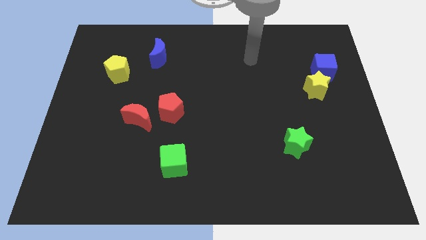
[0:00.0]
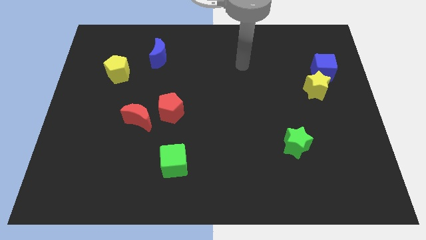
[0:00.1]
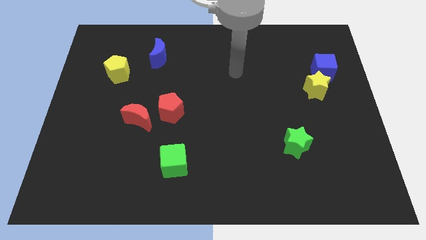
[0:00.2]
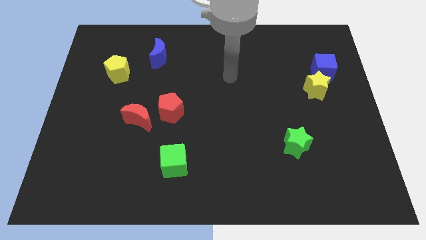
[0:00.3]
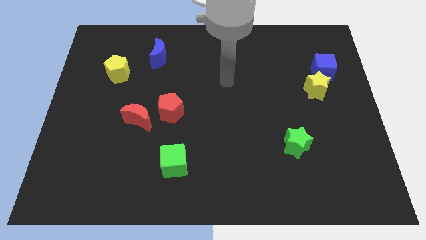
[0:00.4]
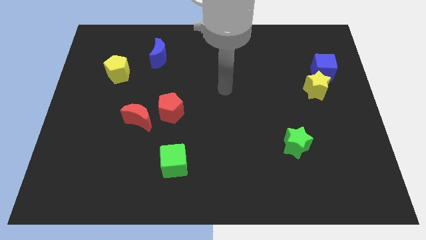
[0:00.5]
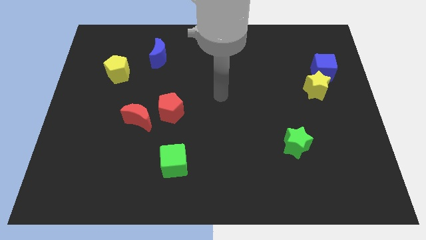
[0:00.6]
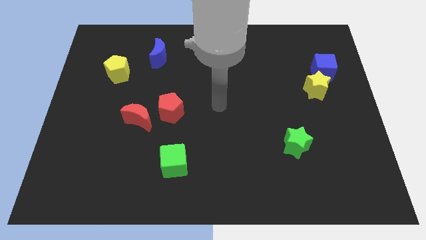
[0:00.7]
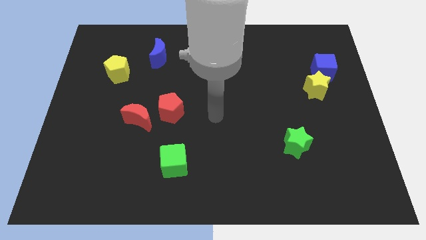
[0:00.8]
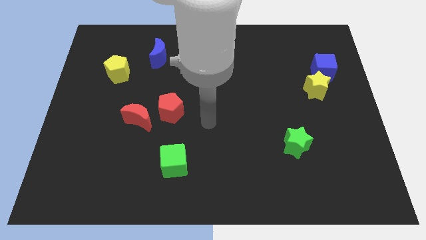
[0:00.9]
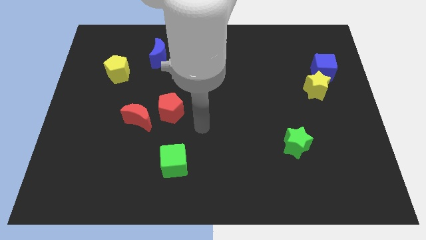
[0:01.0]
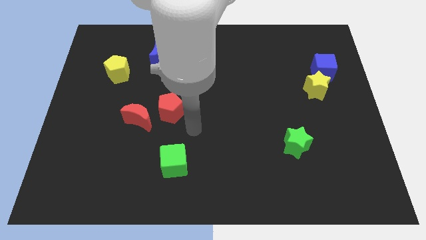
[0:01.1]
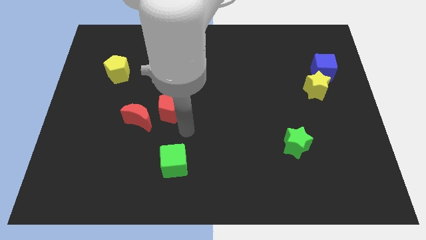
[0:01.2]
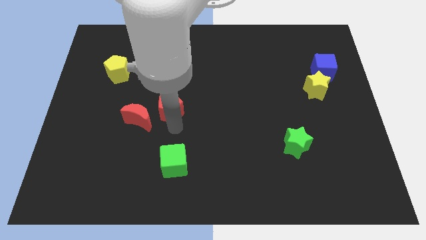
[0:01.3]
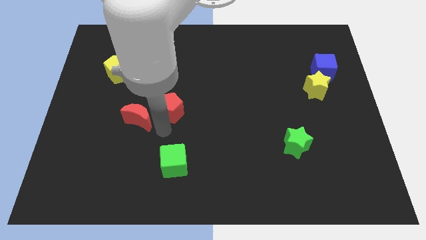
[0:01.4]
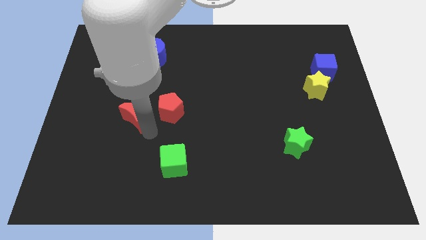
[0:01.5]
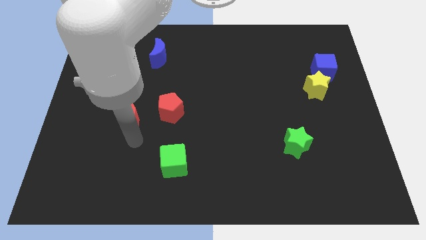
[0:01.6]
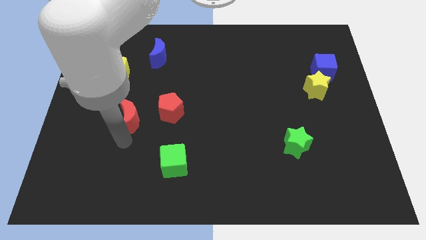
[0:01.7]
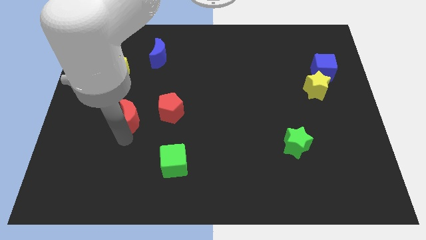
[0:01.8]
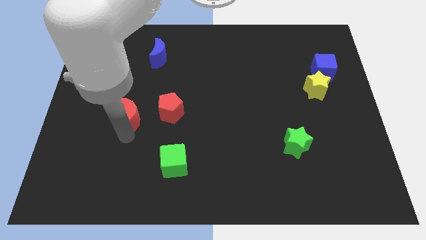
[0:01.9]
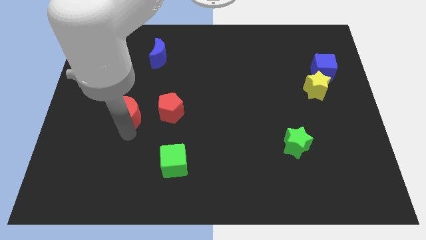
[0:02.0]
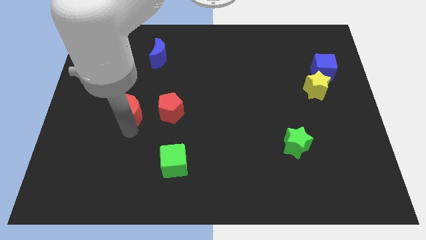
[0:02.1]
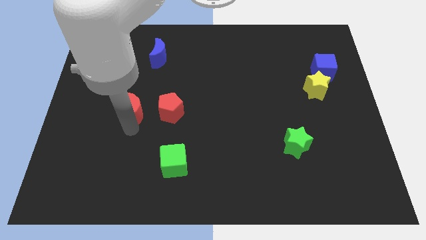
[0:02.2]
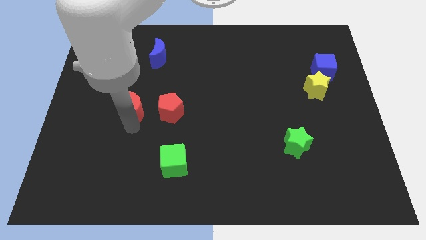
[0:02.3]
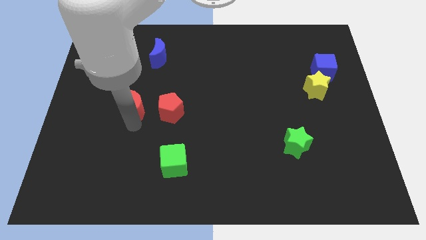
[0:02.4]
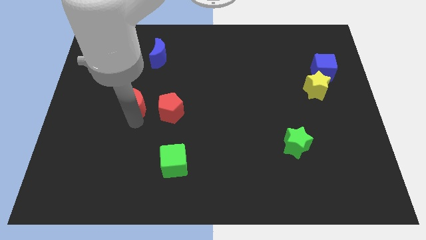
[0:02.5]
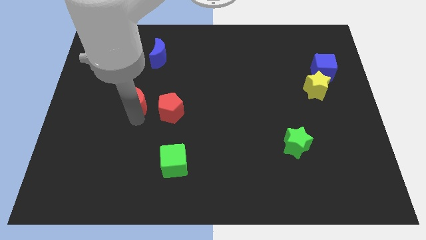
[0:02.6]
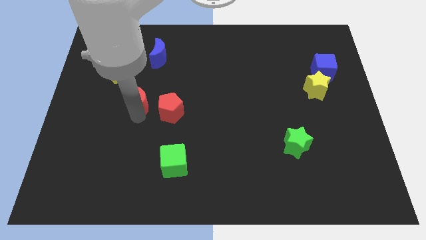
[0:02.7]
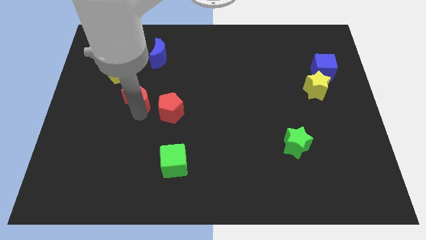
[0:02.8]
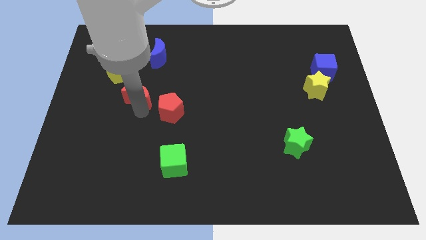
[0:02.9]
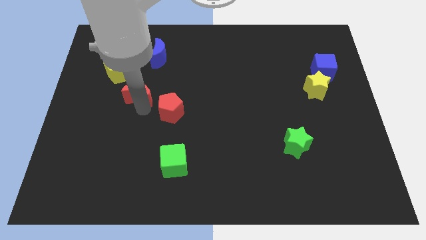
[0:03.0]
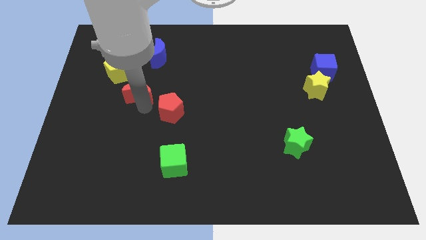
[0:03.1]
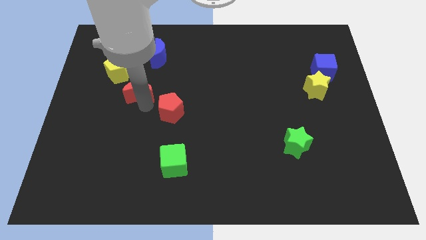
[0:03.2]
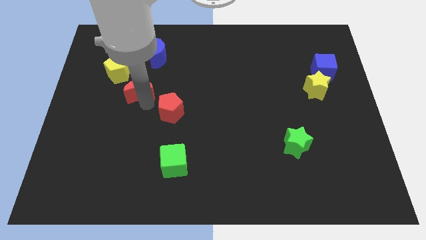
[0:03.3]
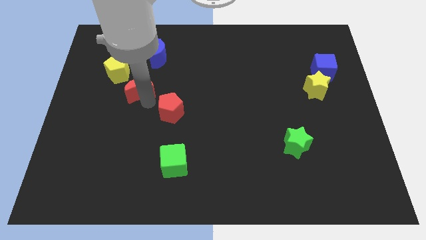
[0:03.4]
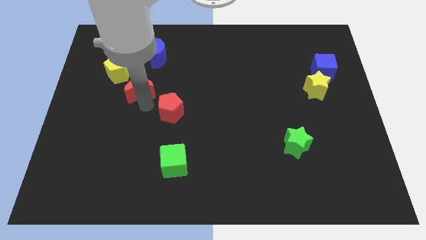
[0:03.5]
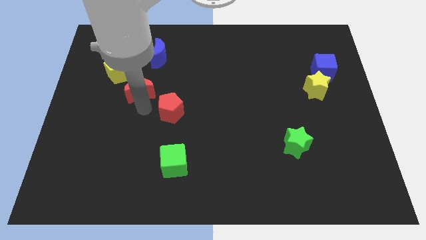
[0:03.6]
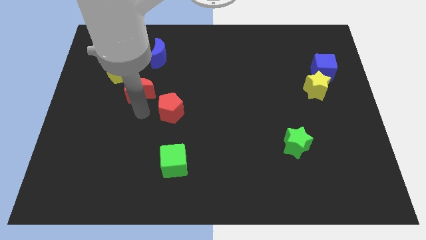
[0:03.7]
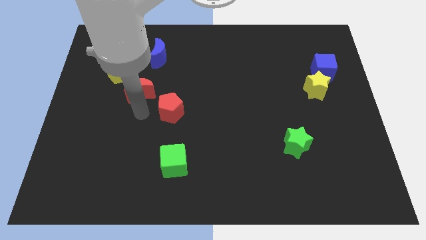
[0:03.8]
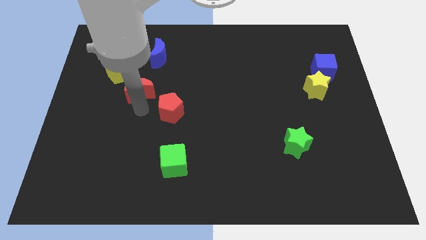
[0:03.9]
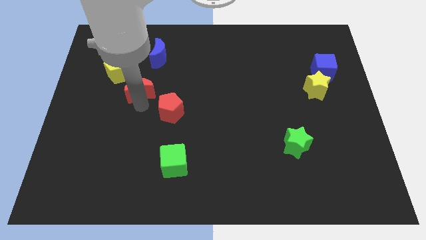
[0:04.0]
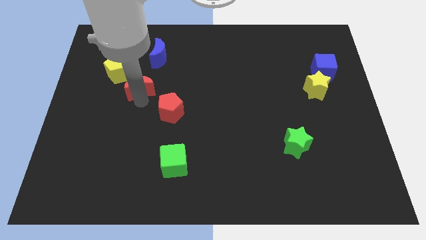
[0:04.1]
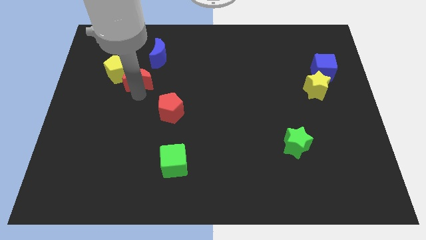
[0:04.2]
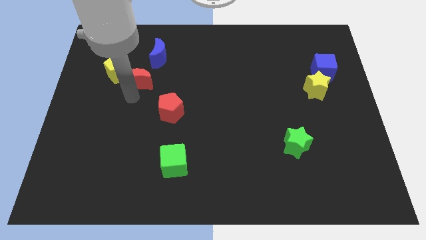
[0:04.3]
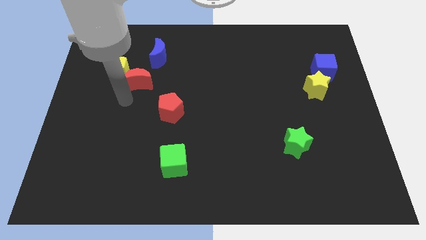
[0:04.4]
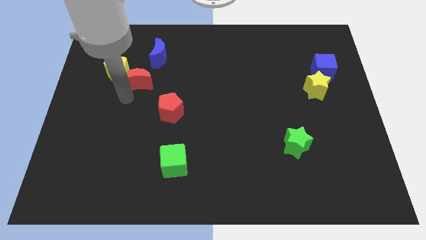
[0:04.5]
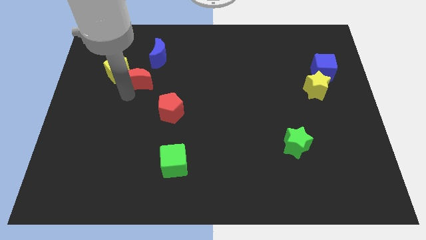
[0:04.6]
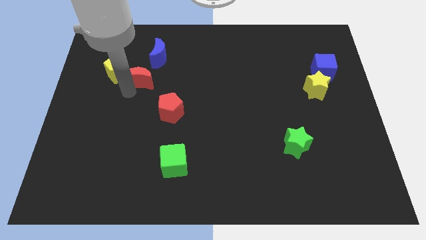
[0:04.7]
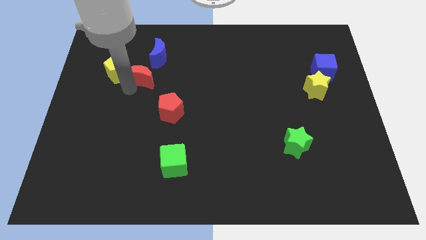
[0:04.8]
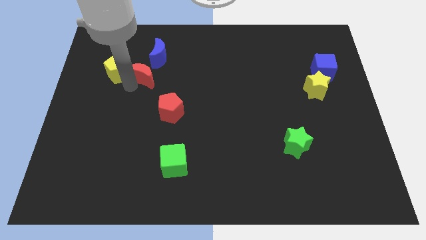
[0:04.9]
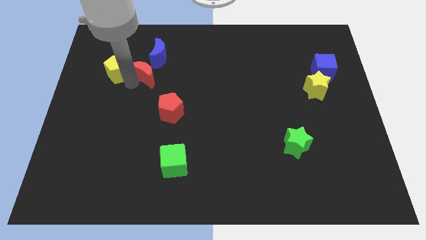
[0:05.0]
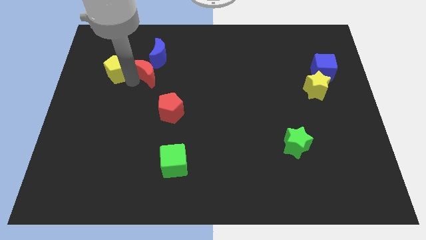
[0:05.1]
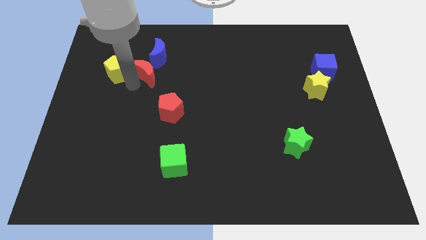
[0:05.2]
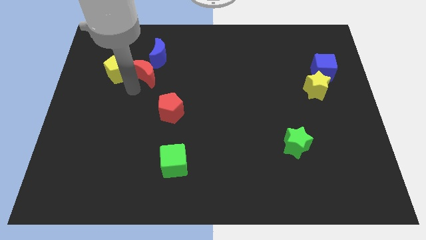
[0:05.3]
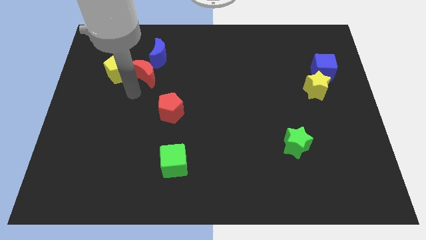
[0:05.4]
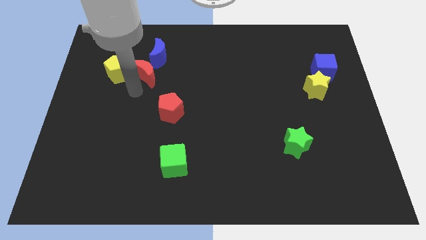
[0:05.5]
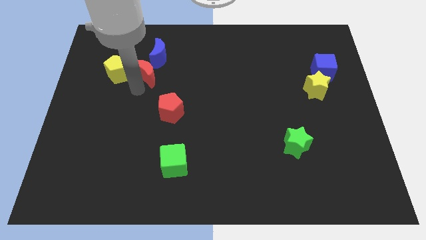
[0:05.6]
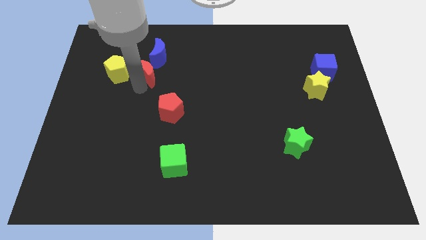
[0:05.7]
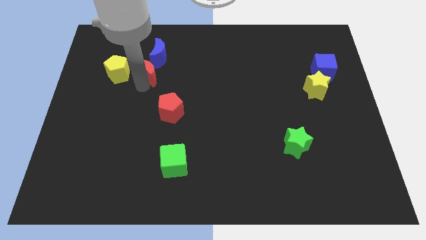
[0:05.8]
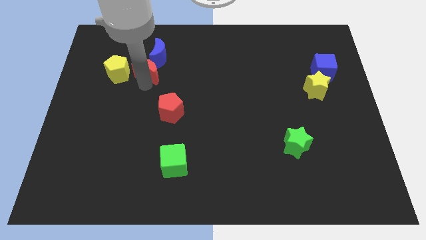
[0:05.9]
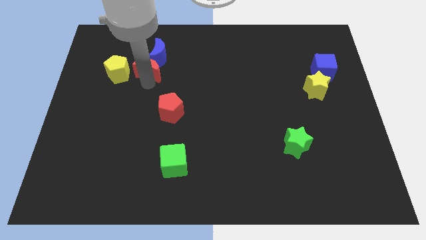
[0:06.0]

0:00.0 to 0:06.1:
move the red moon to the blue moon

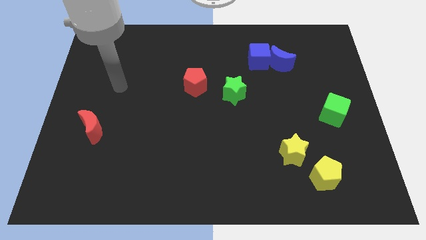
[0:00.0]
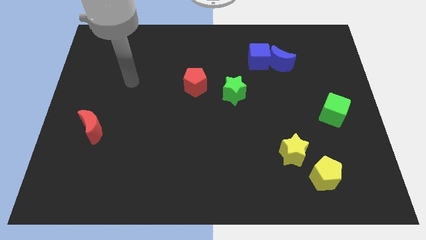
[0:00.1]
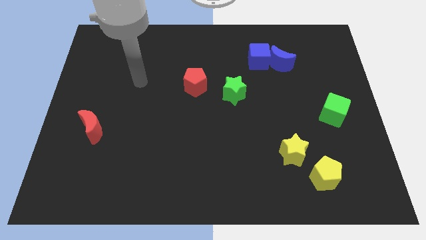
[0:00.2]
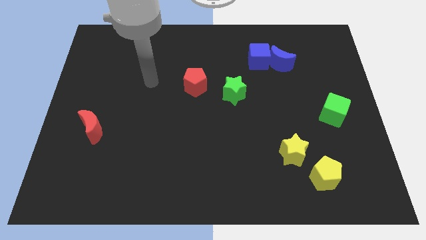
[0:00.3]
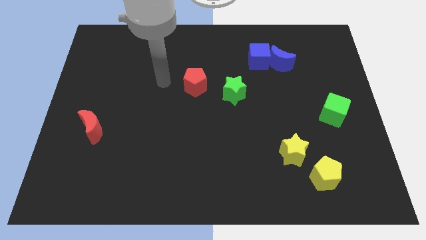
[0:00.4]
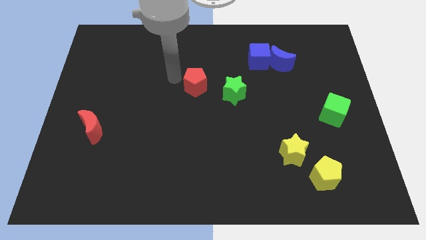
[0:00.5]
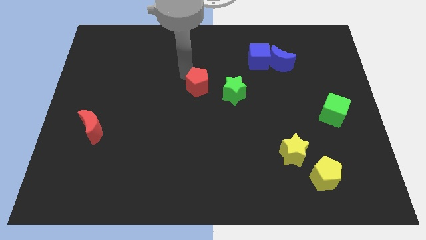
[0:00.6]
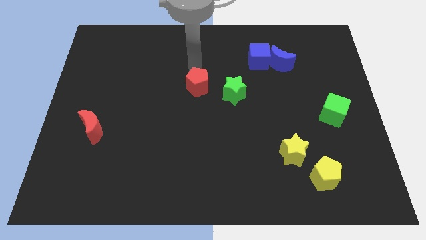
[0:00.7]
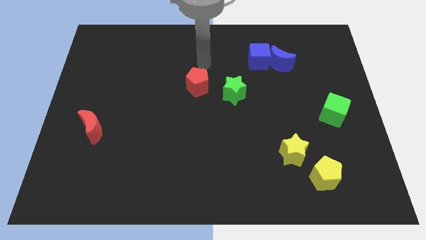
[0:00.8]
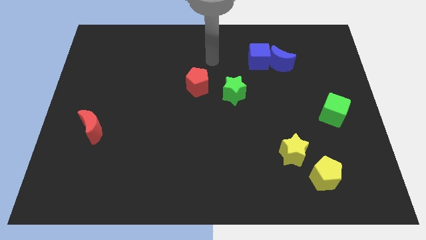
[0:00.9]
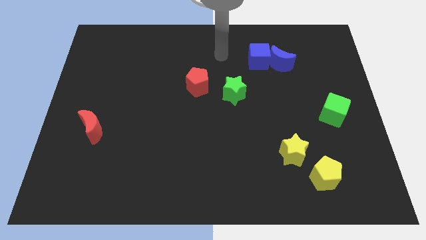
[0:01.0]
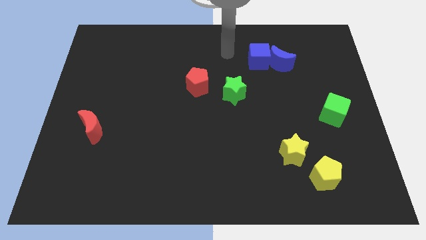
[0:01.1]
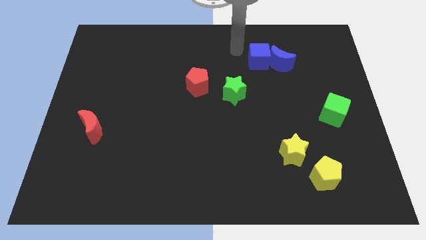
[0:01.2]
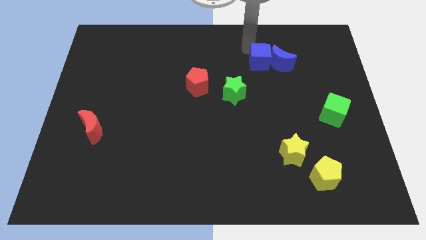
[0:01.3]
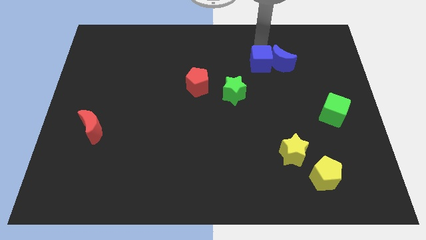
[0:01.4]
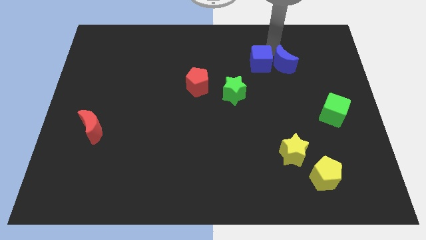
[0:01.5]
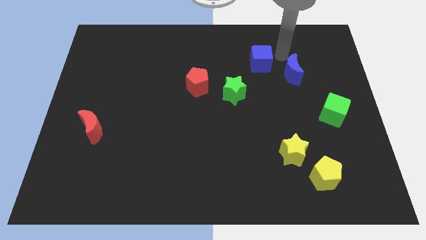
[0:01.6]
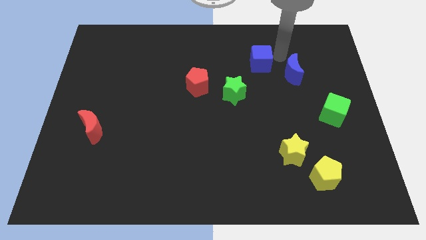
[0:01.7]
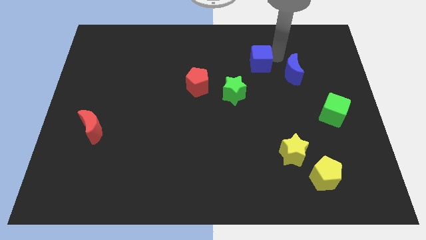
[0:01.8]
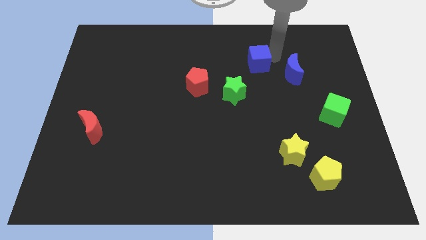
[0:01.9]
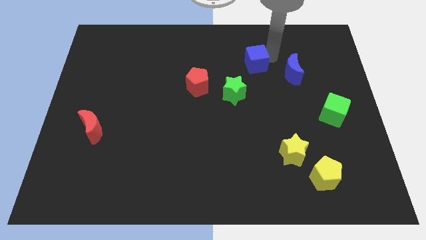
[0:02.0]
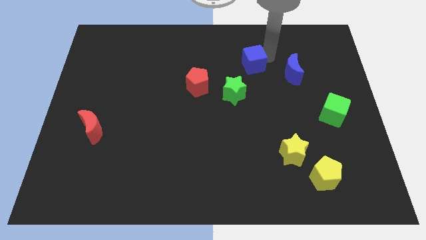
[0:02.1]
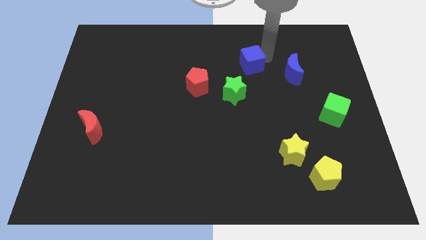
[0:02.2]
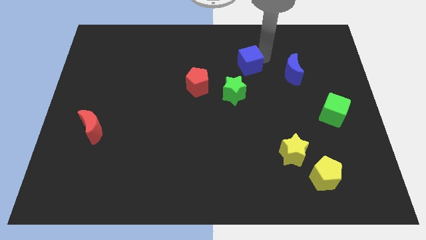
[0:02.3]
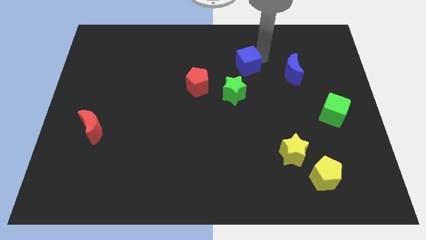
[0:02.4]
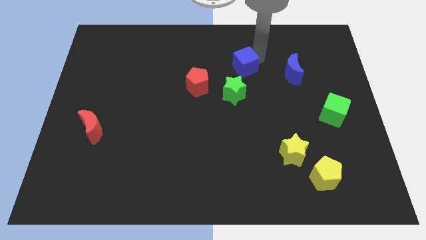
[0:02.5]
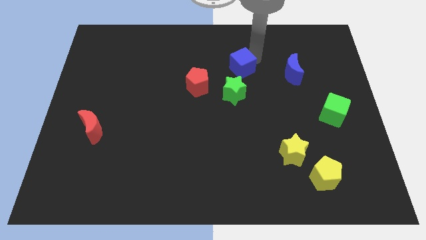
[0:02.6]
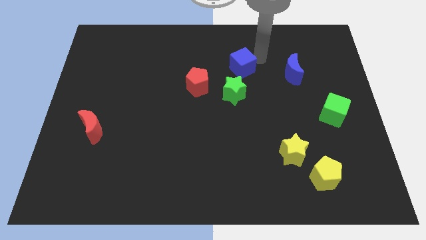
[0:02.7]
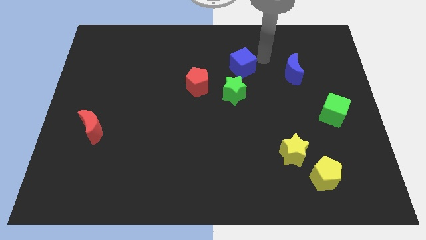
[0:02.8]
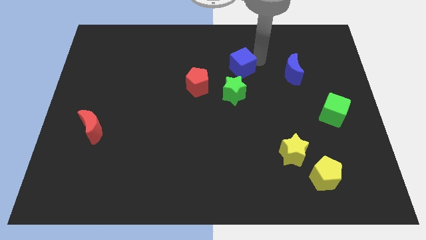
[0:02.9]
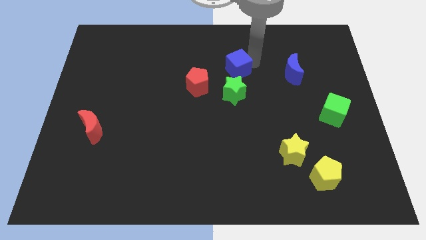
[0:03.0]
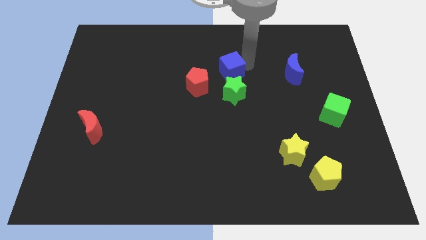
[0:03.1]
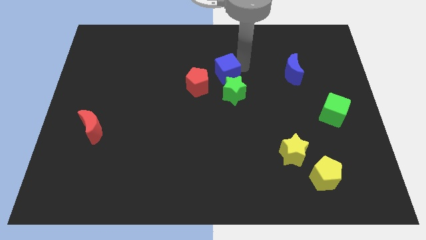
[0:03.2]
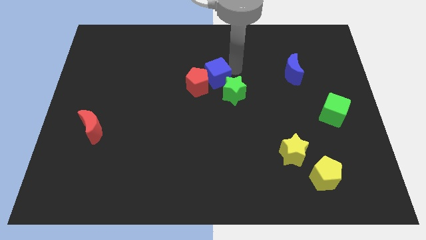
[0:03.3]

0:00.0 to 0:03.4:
put the blue cube next to the red pentagon
